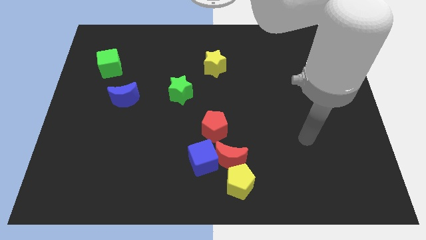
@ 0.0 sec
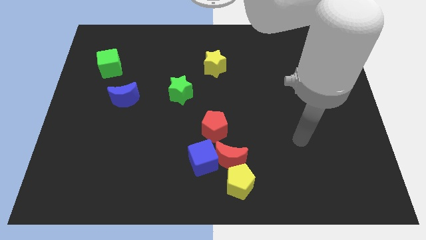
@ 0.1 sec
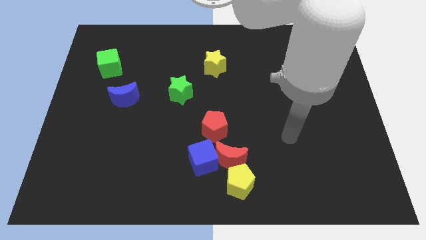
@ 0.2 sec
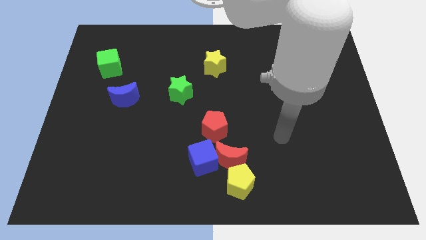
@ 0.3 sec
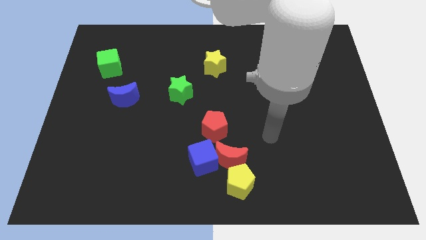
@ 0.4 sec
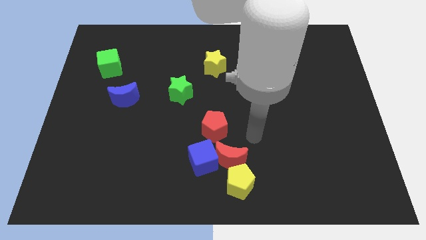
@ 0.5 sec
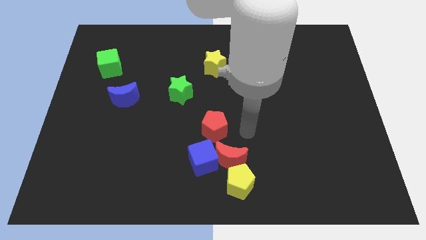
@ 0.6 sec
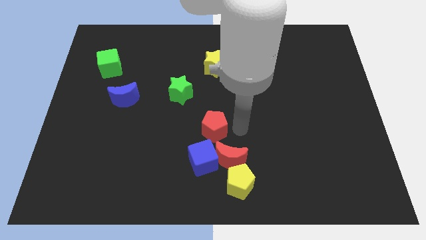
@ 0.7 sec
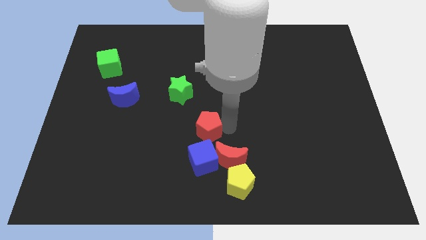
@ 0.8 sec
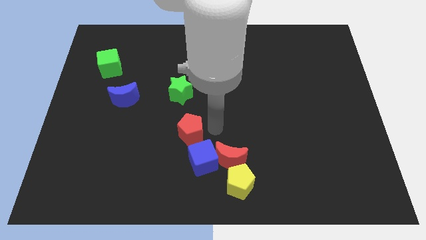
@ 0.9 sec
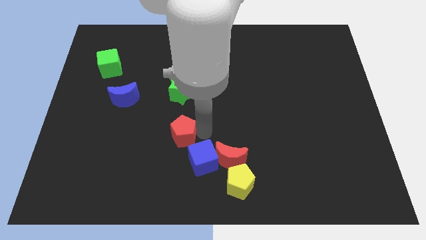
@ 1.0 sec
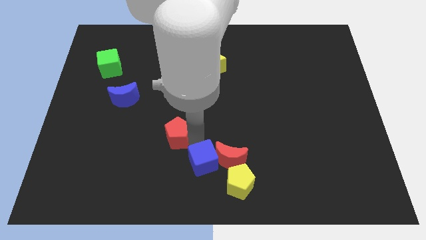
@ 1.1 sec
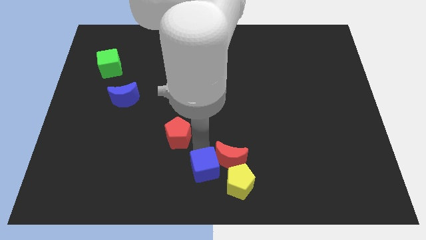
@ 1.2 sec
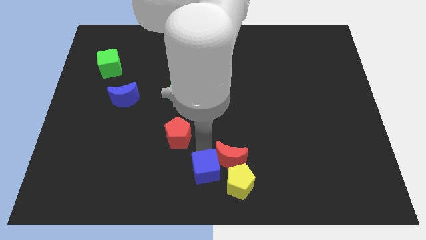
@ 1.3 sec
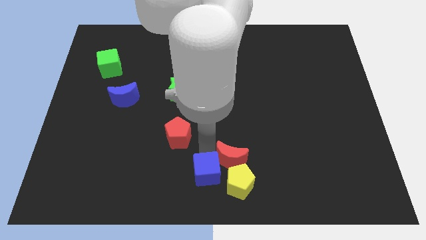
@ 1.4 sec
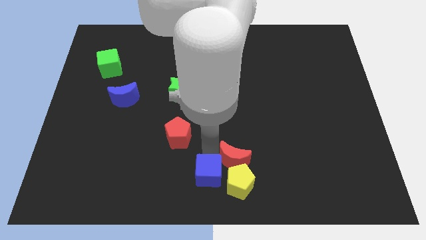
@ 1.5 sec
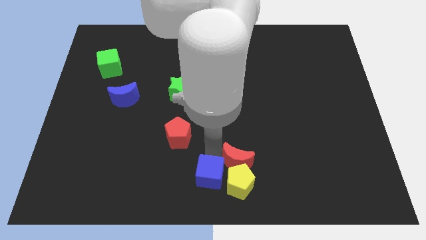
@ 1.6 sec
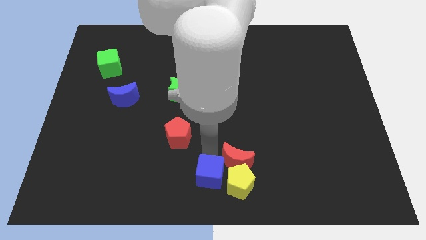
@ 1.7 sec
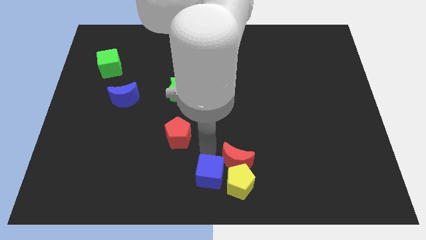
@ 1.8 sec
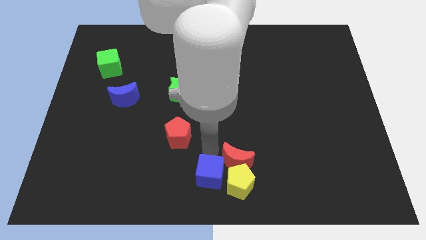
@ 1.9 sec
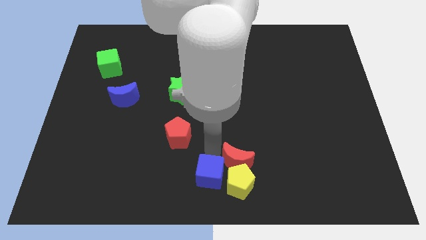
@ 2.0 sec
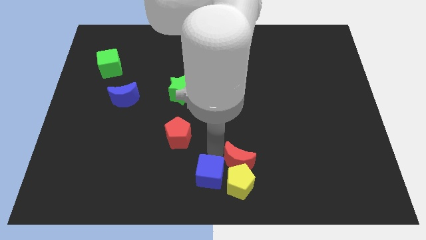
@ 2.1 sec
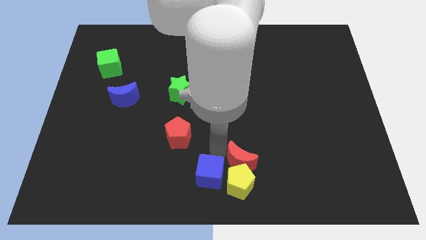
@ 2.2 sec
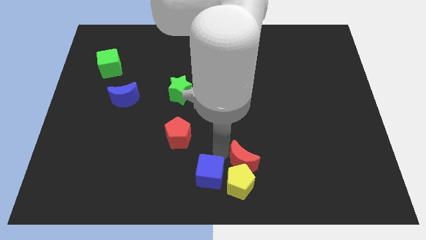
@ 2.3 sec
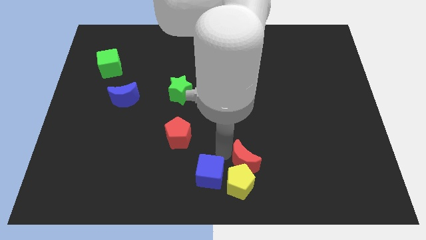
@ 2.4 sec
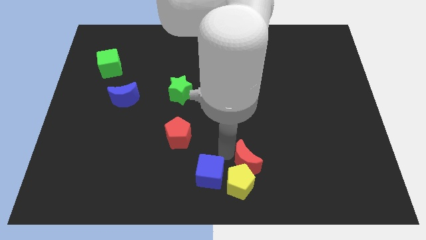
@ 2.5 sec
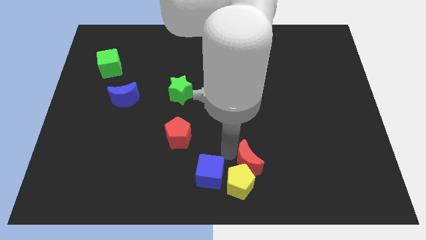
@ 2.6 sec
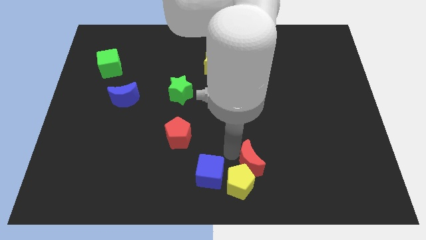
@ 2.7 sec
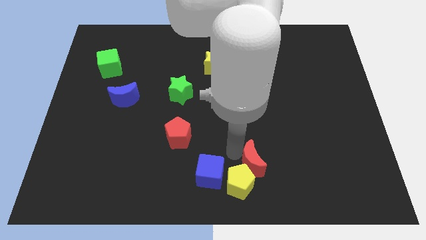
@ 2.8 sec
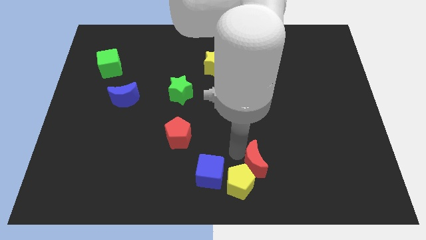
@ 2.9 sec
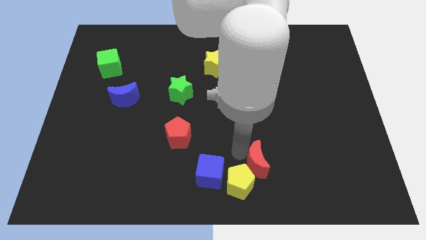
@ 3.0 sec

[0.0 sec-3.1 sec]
move the red moon away from the blue cube, yellow pentagon, and red pentagon

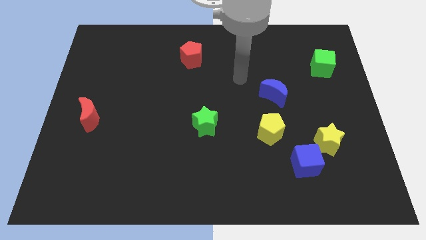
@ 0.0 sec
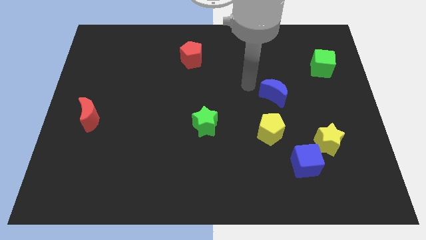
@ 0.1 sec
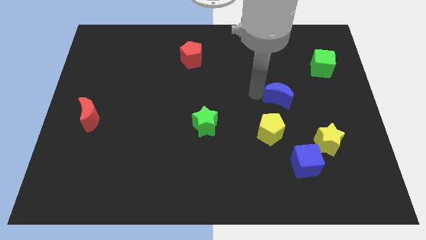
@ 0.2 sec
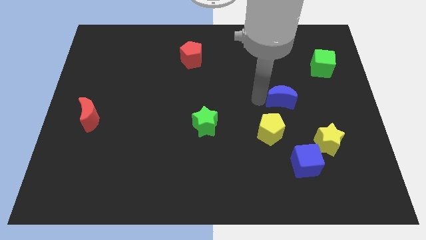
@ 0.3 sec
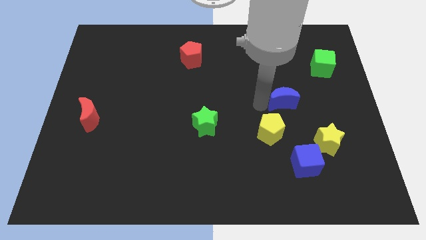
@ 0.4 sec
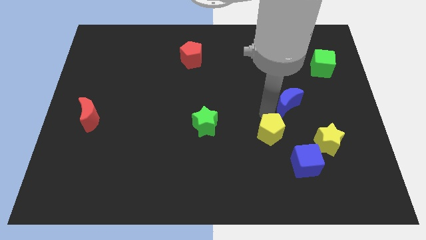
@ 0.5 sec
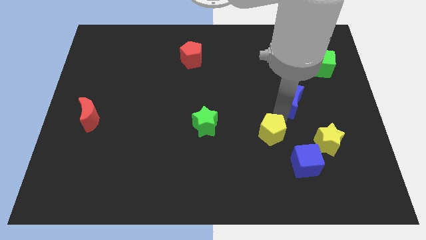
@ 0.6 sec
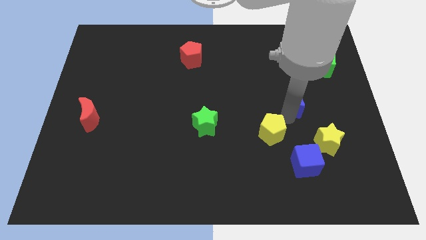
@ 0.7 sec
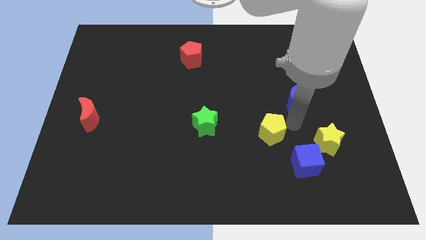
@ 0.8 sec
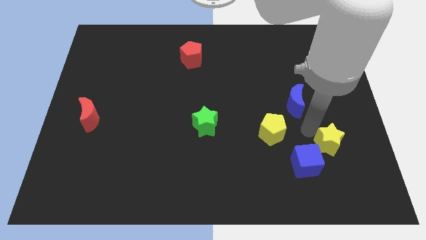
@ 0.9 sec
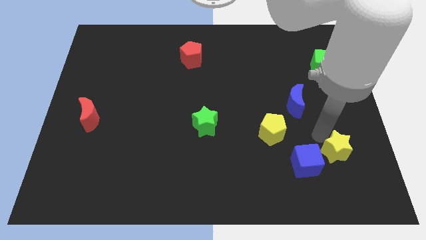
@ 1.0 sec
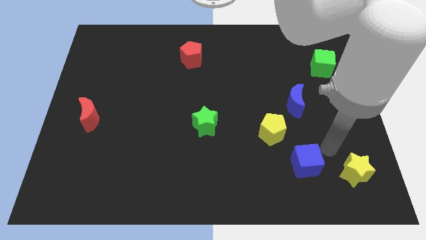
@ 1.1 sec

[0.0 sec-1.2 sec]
separate the blue cube from the yellow star

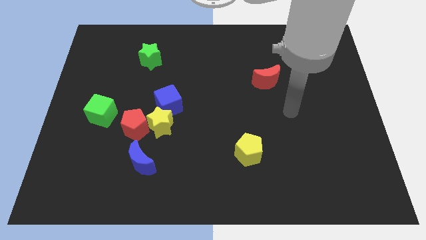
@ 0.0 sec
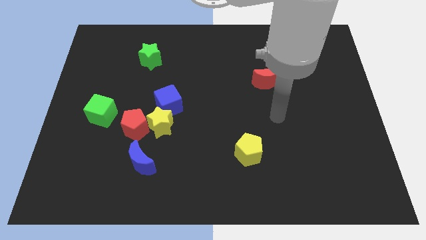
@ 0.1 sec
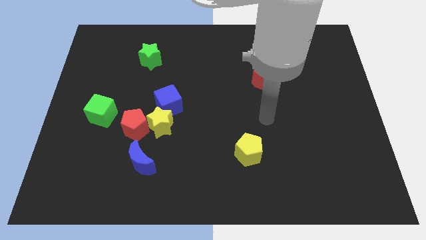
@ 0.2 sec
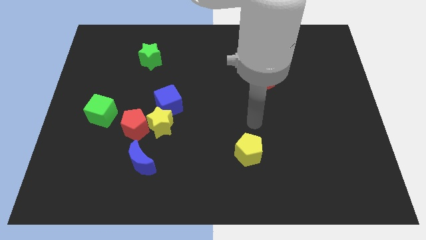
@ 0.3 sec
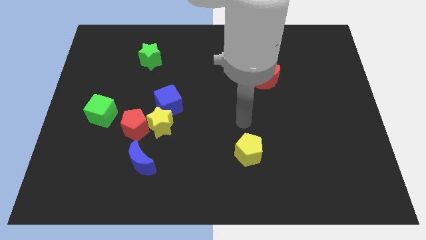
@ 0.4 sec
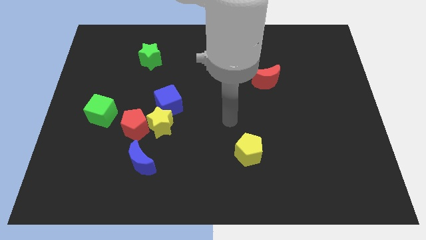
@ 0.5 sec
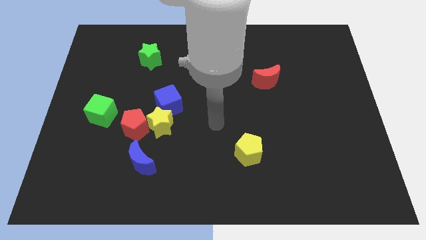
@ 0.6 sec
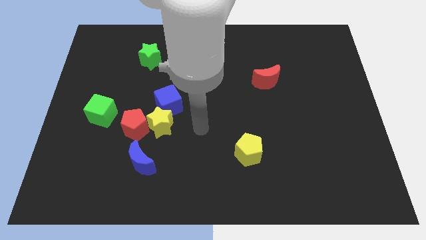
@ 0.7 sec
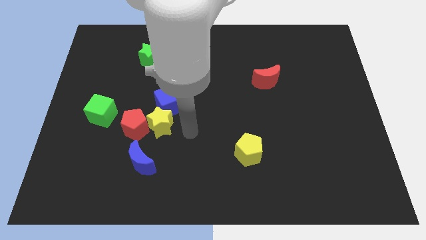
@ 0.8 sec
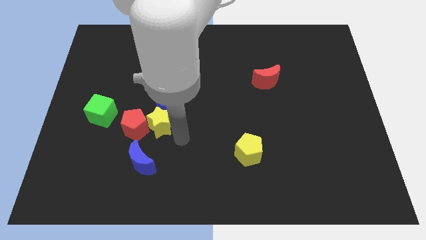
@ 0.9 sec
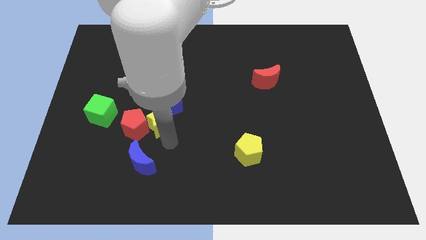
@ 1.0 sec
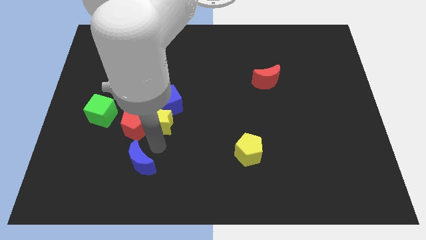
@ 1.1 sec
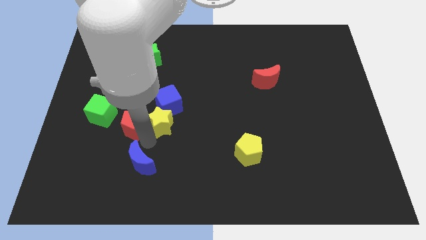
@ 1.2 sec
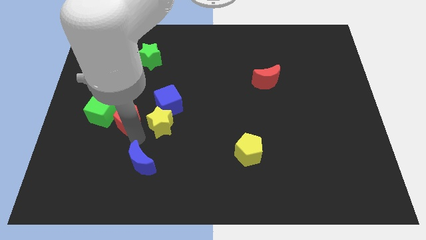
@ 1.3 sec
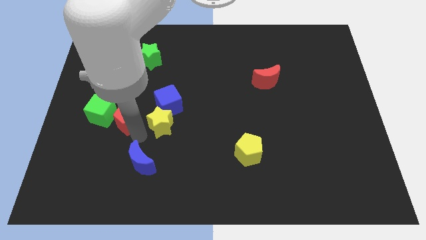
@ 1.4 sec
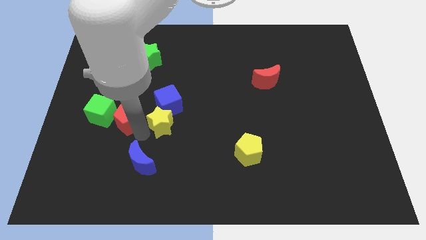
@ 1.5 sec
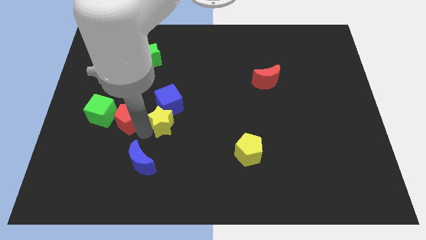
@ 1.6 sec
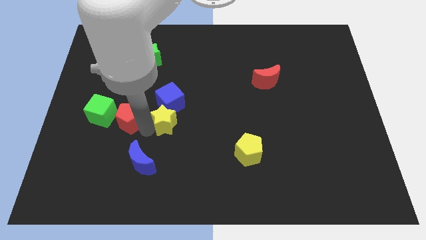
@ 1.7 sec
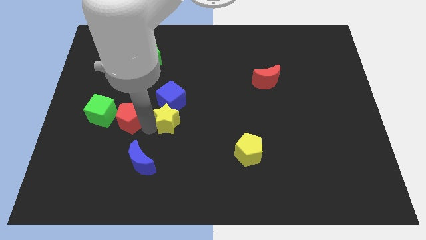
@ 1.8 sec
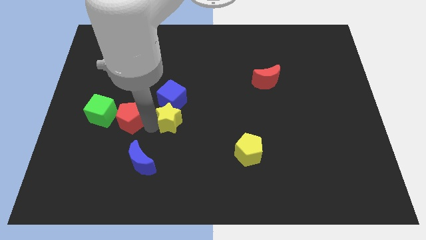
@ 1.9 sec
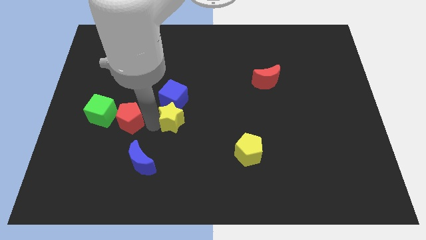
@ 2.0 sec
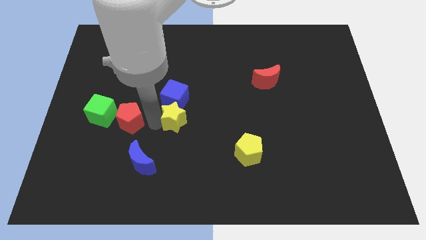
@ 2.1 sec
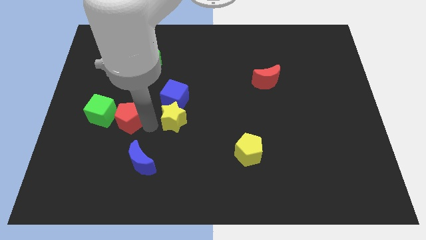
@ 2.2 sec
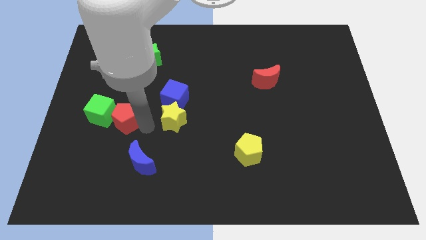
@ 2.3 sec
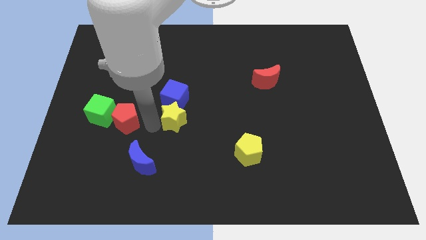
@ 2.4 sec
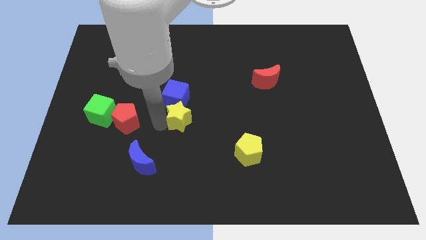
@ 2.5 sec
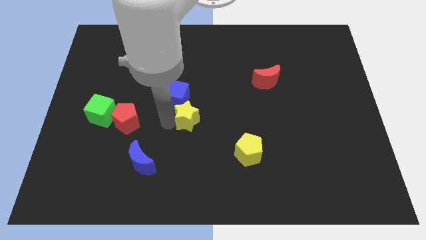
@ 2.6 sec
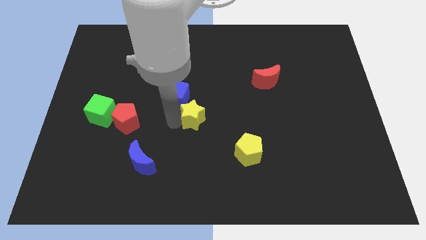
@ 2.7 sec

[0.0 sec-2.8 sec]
move the yellow star away from the red pentagon, blue cube, and blue moon

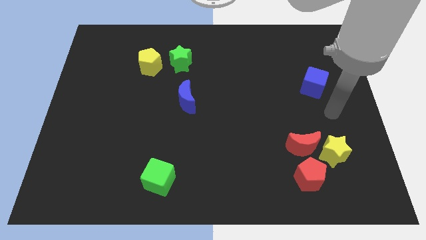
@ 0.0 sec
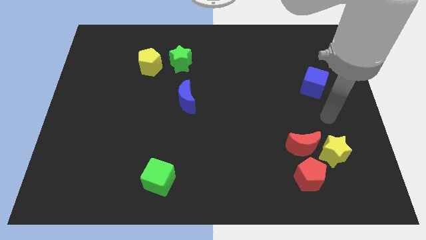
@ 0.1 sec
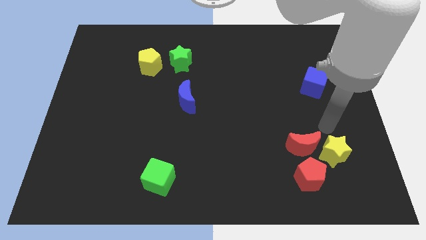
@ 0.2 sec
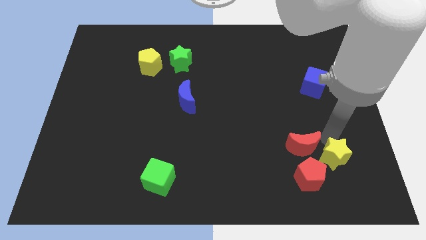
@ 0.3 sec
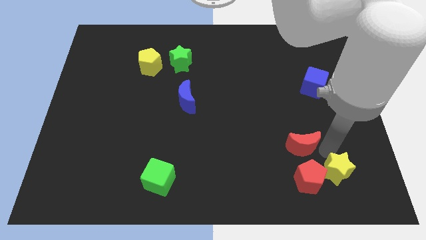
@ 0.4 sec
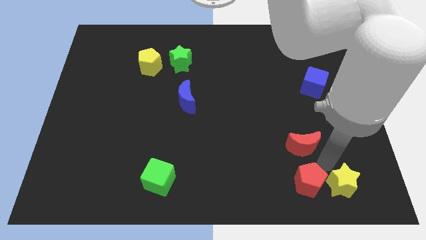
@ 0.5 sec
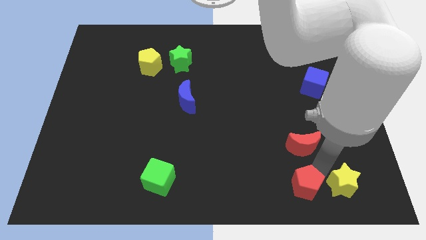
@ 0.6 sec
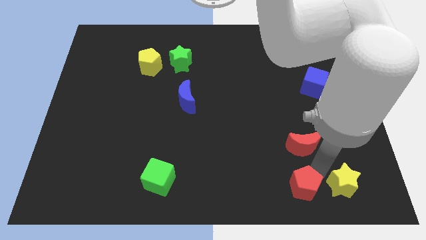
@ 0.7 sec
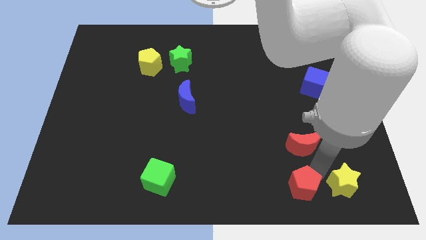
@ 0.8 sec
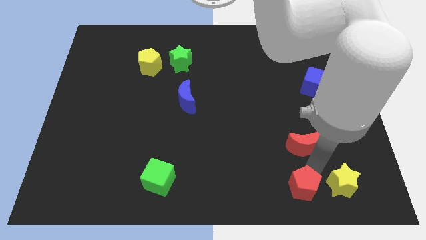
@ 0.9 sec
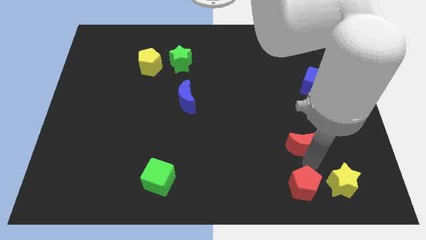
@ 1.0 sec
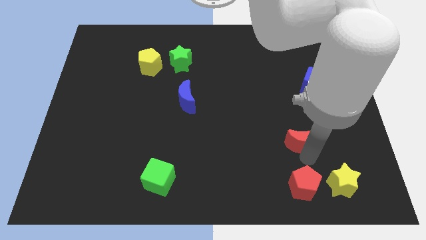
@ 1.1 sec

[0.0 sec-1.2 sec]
move the red moon away from the yellow star and red pentagon

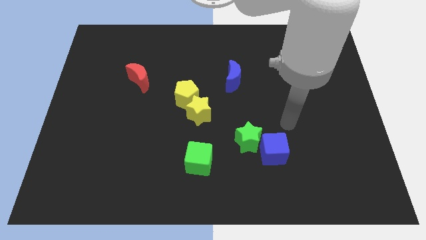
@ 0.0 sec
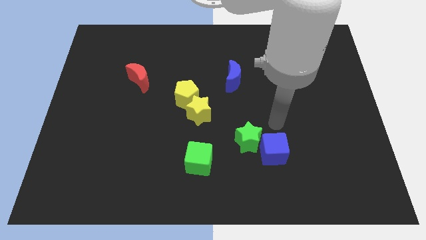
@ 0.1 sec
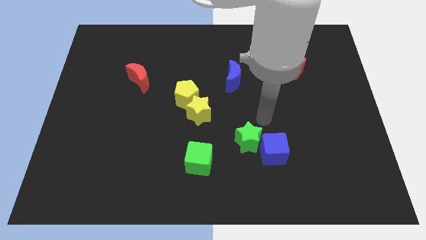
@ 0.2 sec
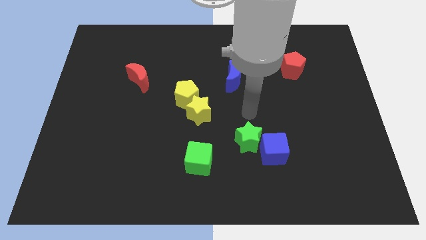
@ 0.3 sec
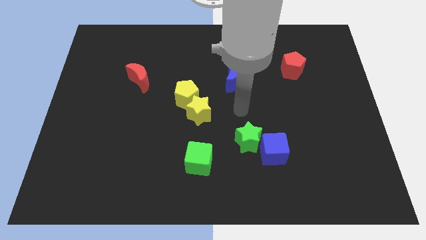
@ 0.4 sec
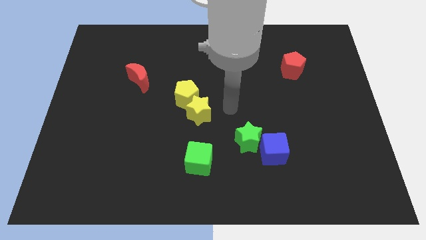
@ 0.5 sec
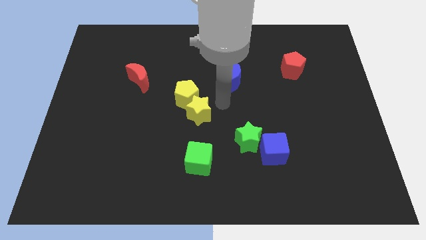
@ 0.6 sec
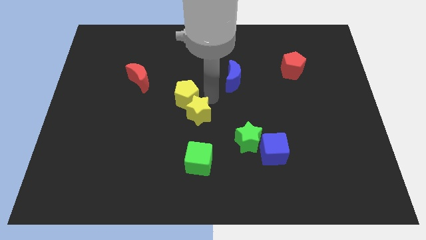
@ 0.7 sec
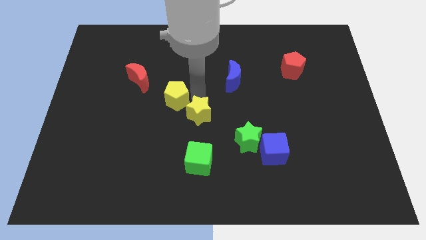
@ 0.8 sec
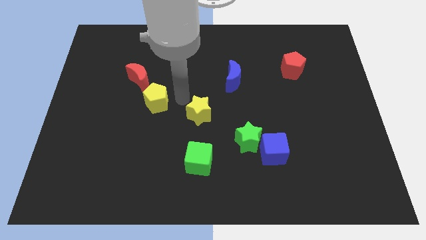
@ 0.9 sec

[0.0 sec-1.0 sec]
pull the yellow star apart from the yellow pentagon
